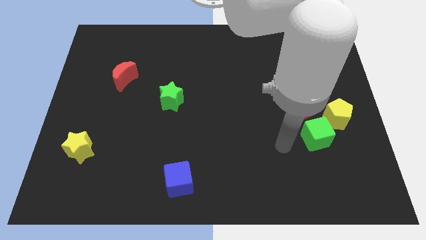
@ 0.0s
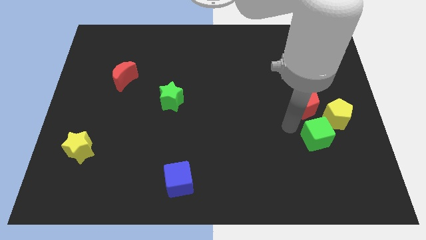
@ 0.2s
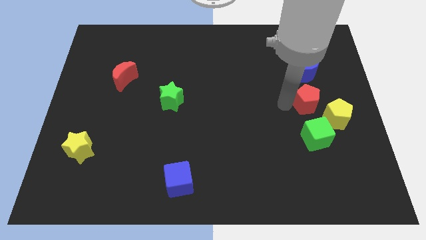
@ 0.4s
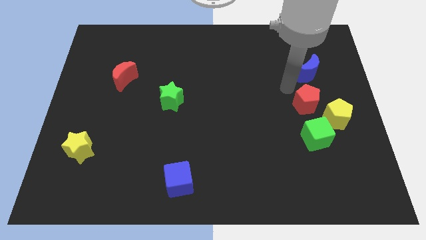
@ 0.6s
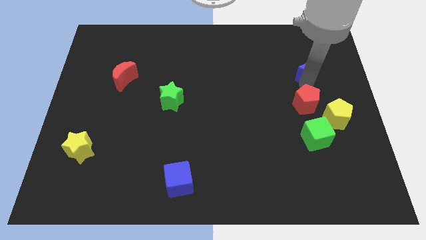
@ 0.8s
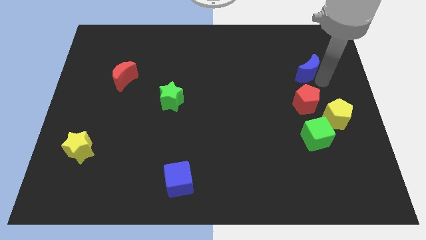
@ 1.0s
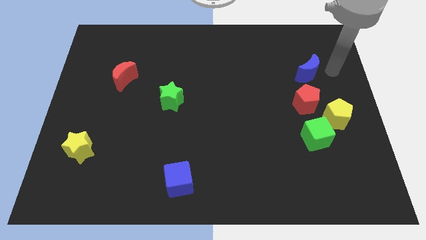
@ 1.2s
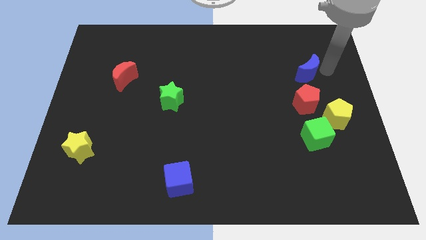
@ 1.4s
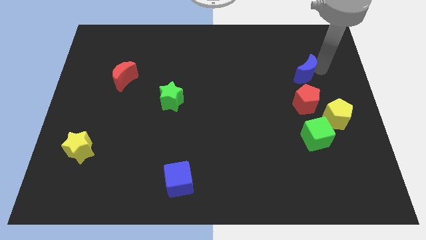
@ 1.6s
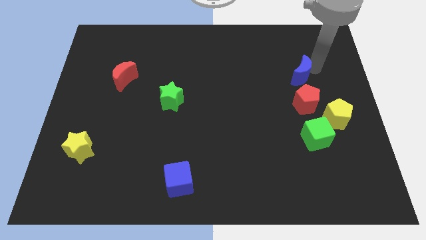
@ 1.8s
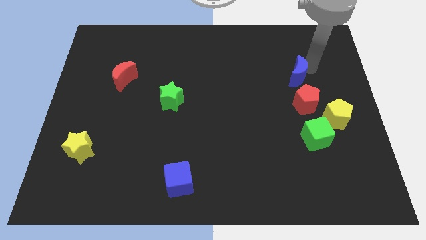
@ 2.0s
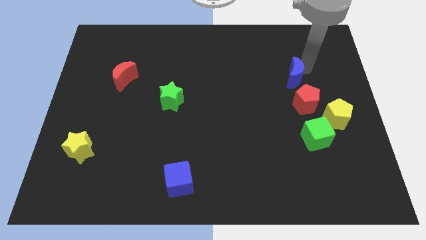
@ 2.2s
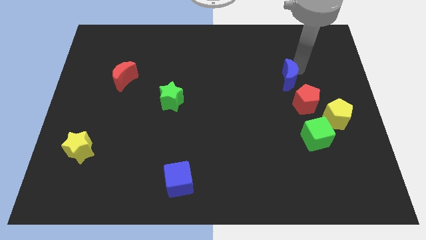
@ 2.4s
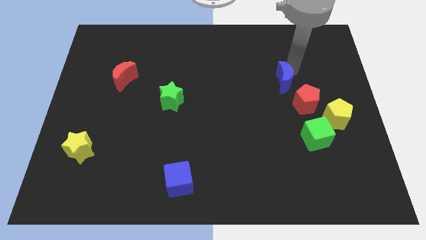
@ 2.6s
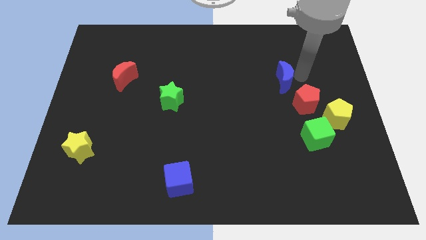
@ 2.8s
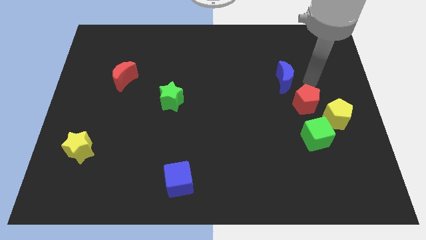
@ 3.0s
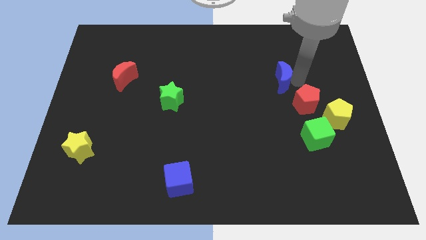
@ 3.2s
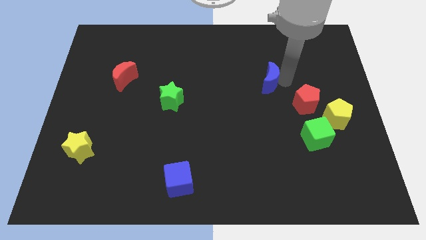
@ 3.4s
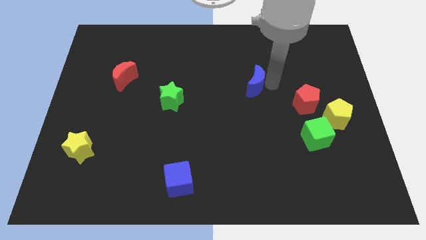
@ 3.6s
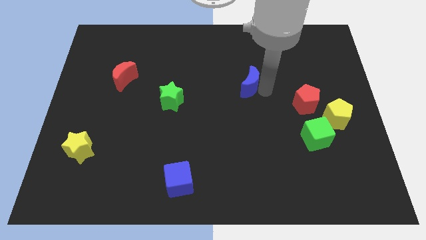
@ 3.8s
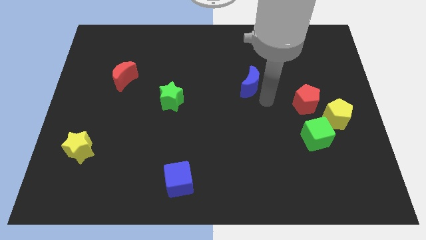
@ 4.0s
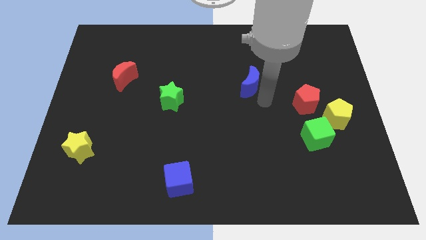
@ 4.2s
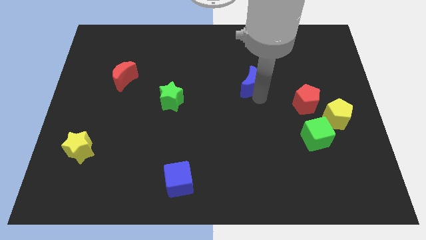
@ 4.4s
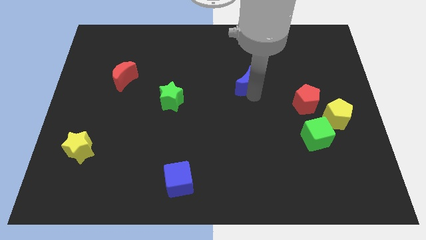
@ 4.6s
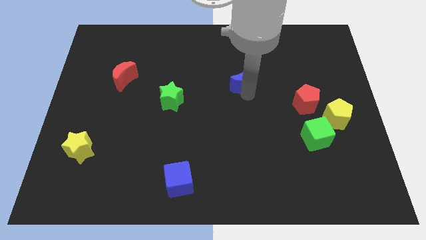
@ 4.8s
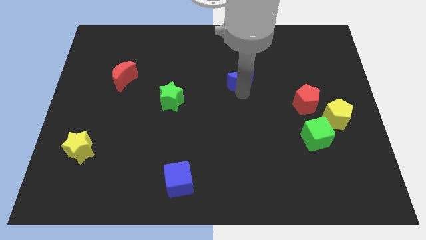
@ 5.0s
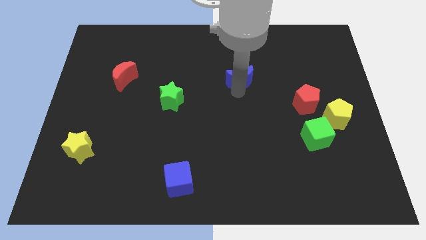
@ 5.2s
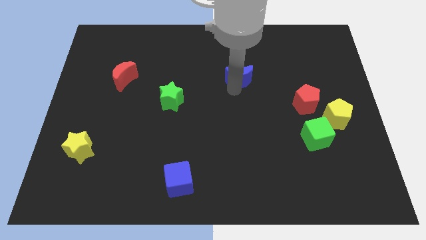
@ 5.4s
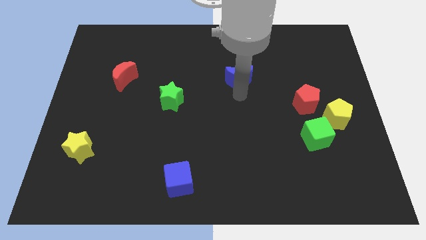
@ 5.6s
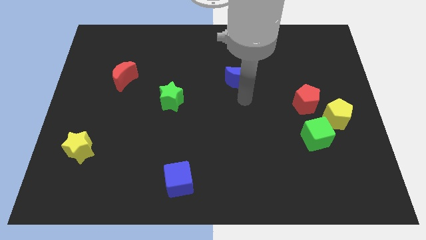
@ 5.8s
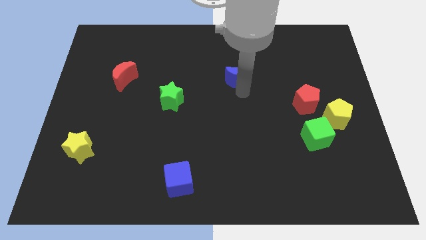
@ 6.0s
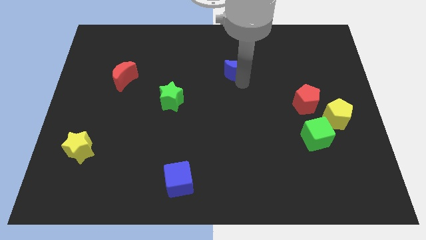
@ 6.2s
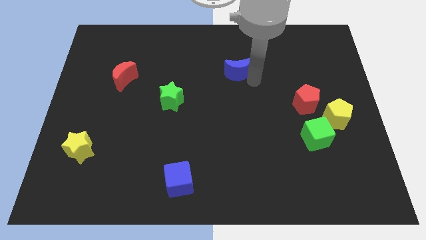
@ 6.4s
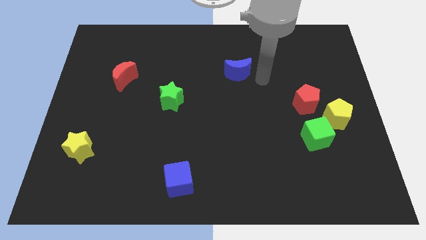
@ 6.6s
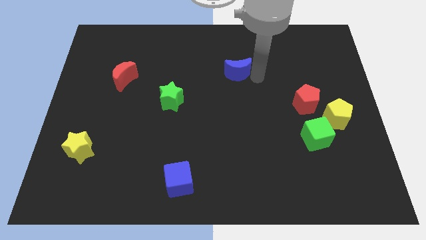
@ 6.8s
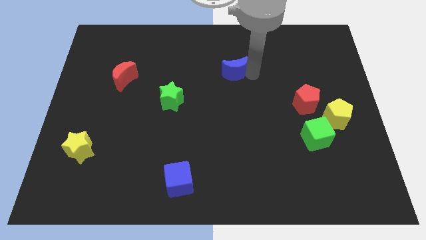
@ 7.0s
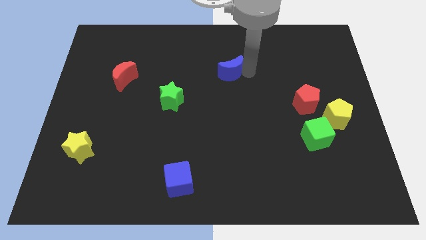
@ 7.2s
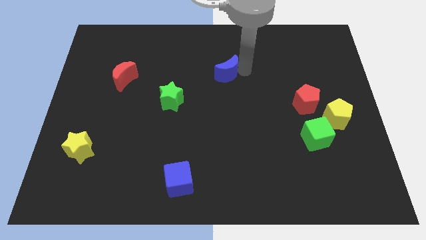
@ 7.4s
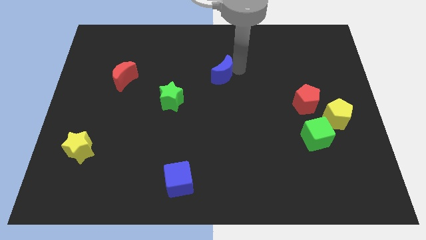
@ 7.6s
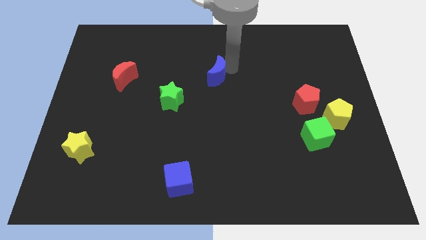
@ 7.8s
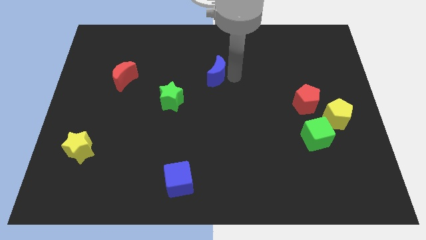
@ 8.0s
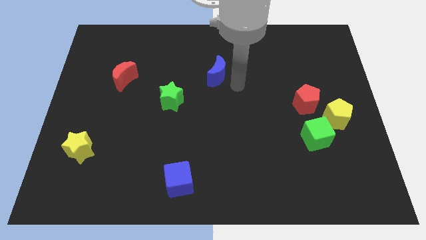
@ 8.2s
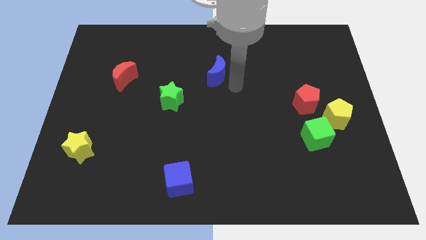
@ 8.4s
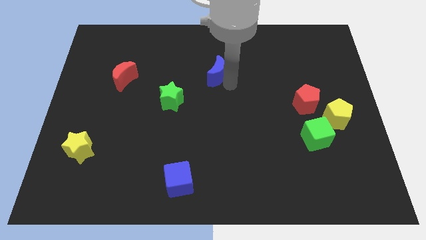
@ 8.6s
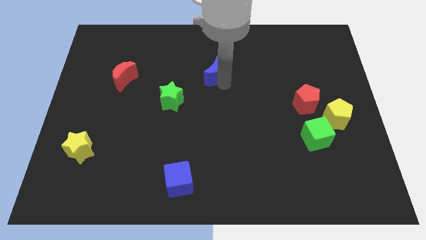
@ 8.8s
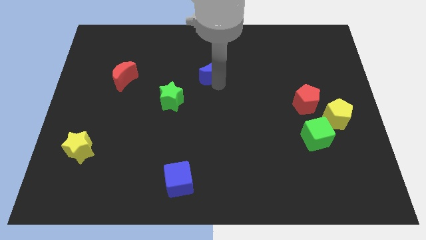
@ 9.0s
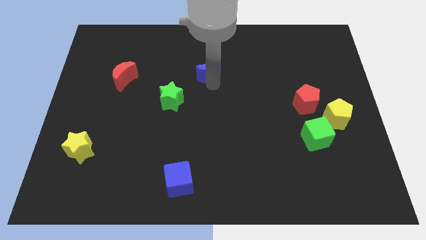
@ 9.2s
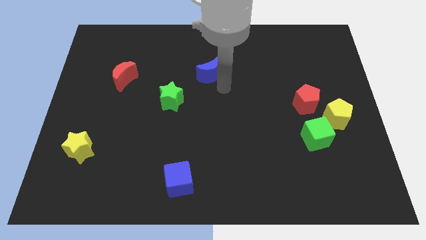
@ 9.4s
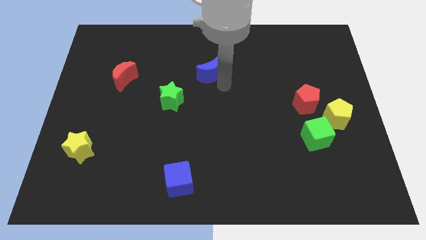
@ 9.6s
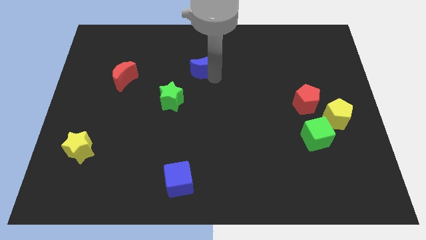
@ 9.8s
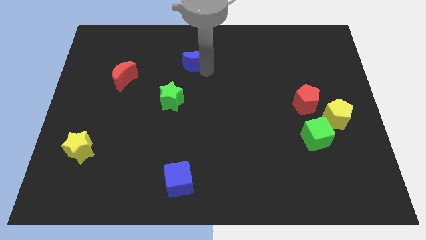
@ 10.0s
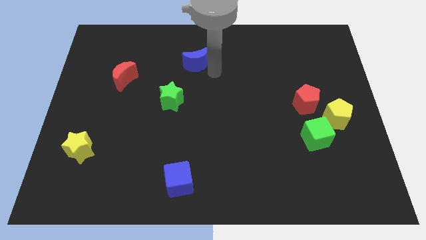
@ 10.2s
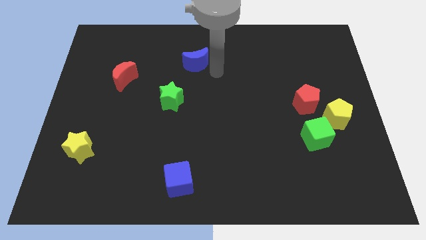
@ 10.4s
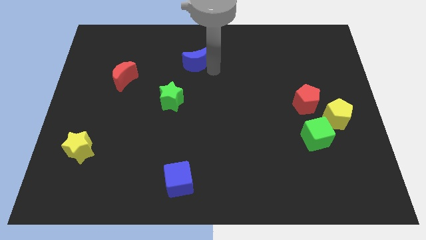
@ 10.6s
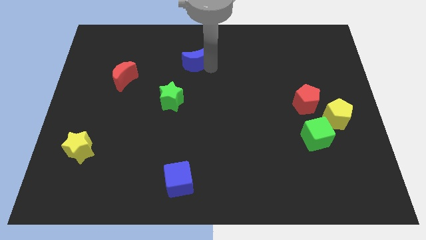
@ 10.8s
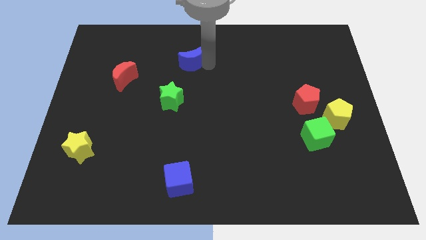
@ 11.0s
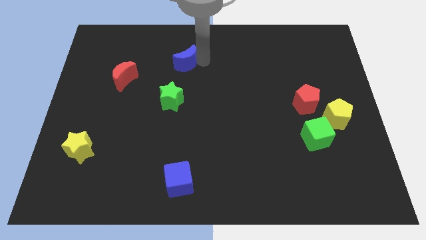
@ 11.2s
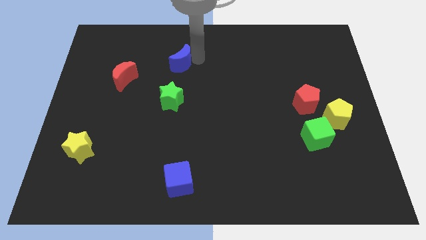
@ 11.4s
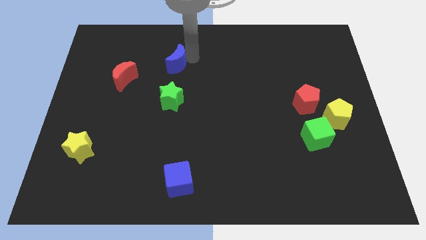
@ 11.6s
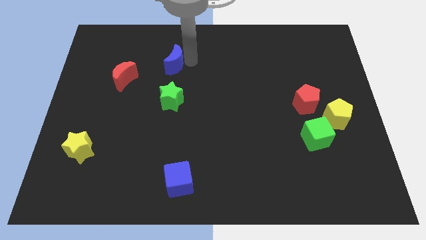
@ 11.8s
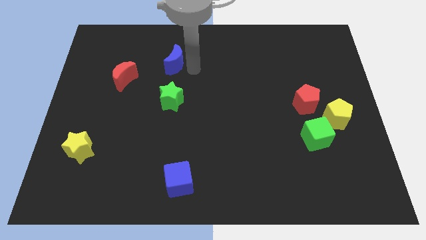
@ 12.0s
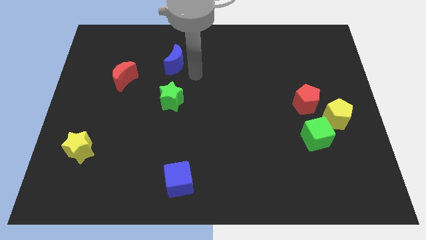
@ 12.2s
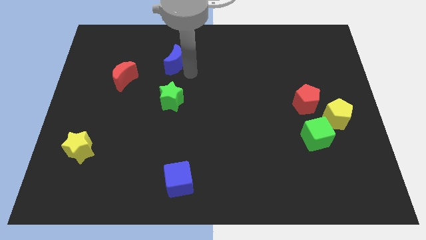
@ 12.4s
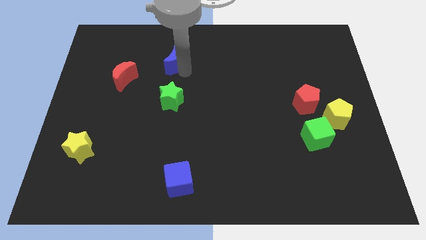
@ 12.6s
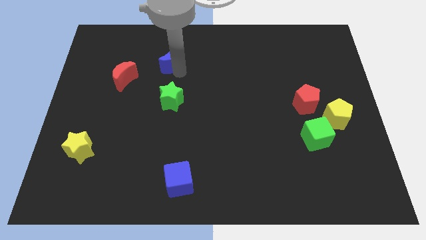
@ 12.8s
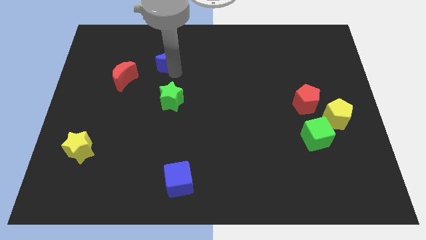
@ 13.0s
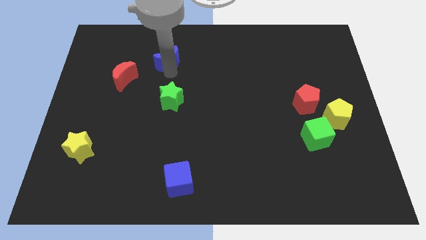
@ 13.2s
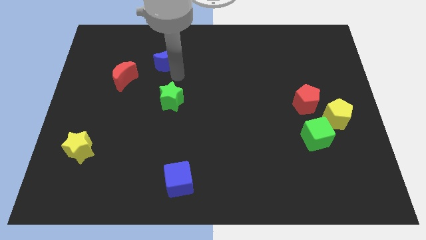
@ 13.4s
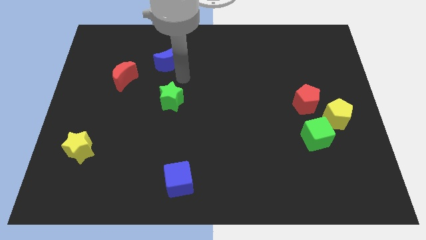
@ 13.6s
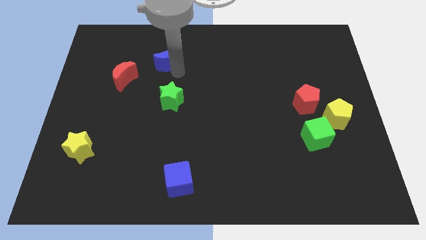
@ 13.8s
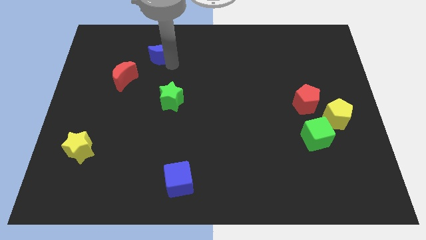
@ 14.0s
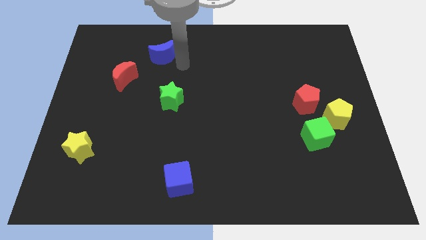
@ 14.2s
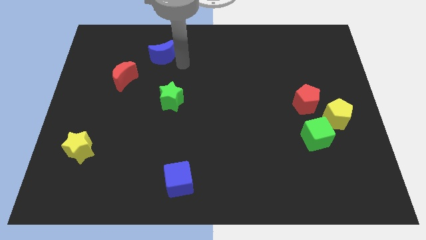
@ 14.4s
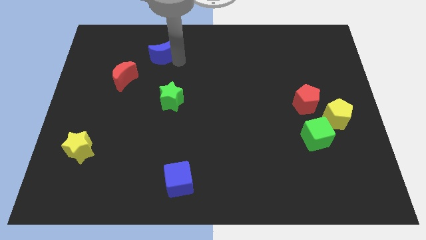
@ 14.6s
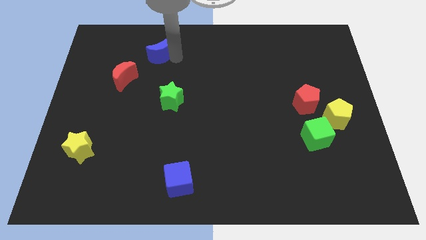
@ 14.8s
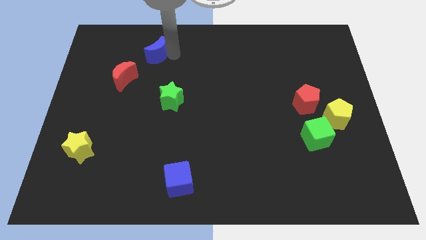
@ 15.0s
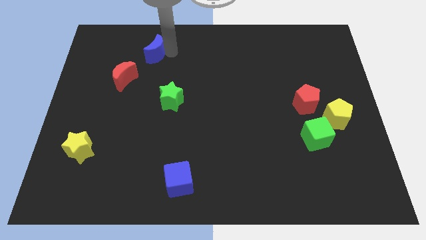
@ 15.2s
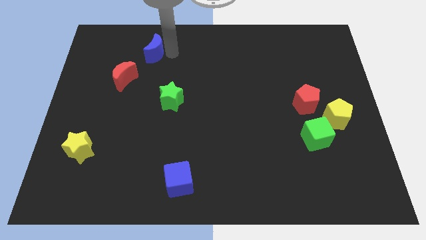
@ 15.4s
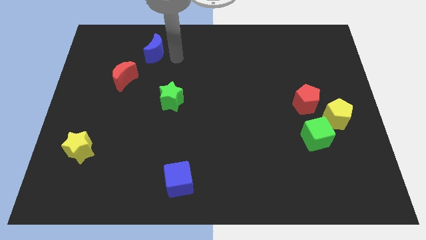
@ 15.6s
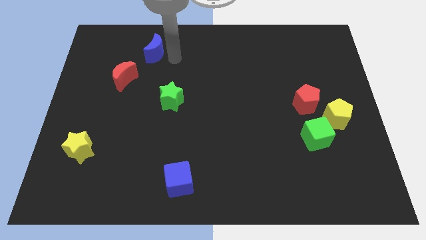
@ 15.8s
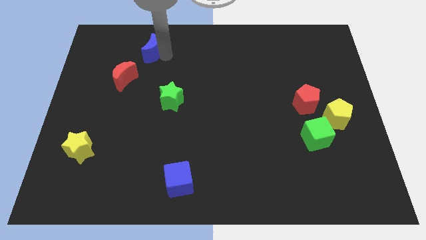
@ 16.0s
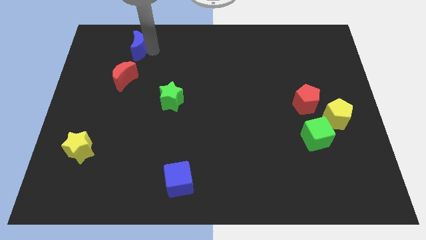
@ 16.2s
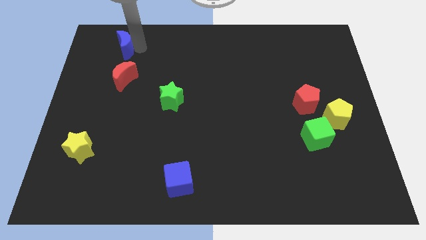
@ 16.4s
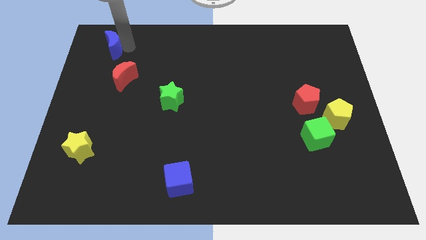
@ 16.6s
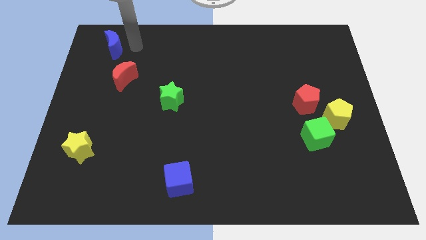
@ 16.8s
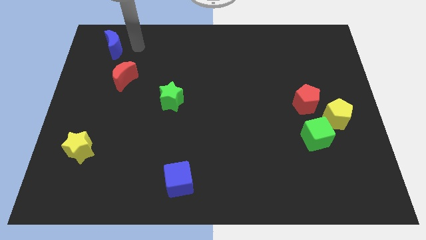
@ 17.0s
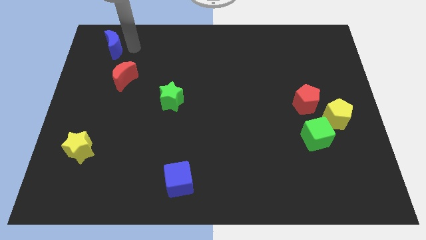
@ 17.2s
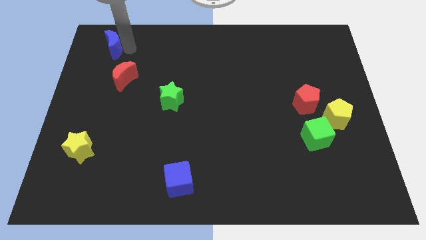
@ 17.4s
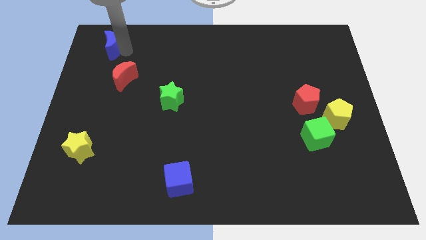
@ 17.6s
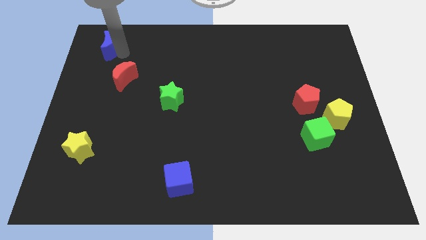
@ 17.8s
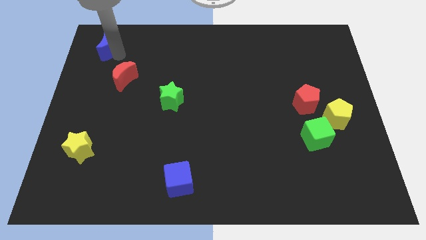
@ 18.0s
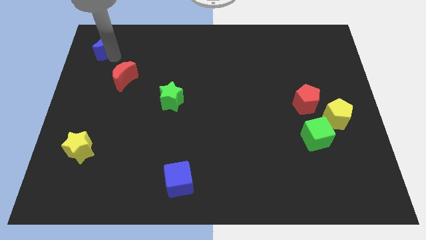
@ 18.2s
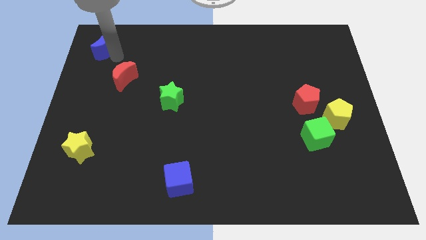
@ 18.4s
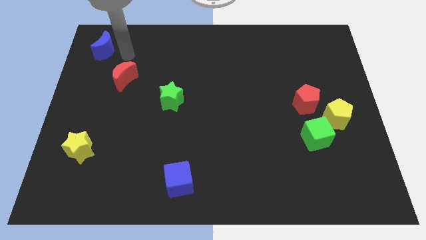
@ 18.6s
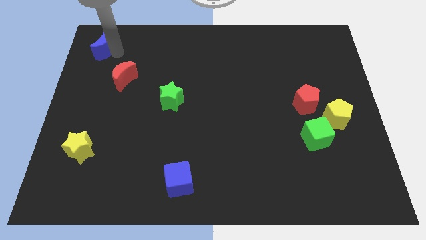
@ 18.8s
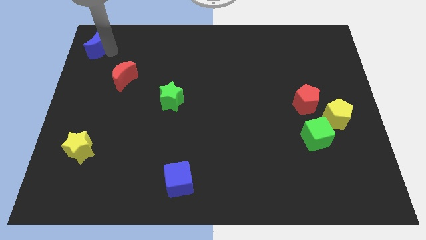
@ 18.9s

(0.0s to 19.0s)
move the blue moon to the upper left corner
